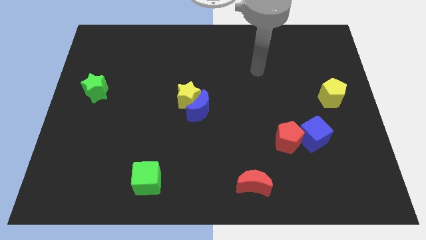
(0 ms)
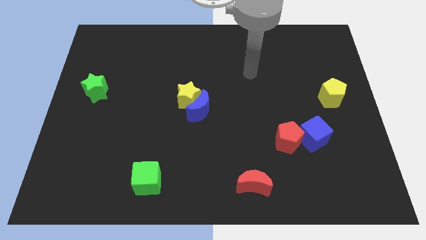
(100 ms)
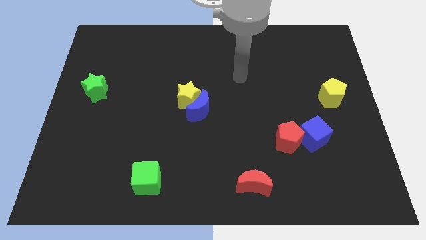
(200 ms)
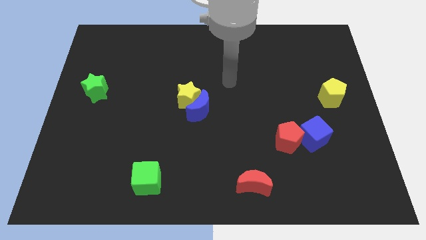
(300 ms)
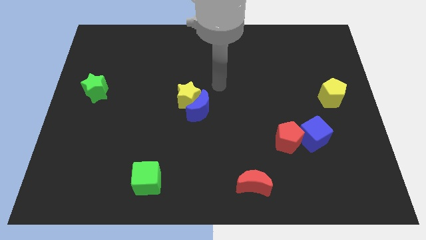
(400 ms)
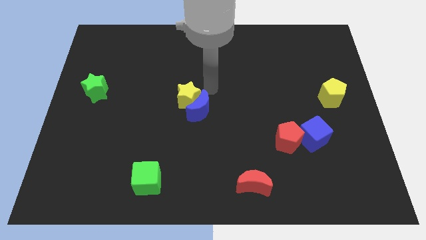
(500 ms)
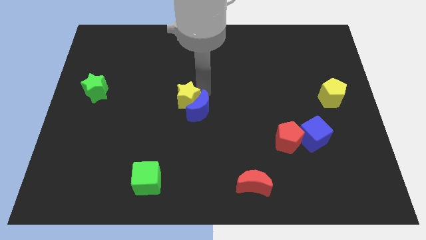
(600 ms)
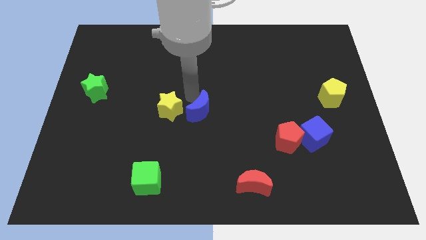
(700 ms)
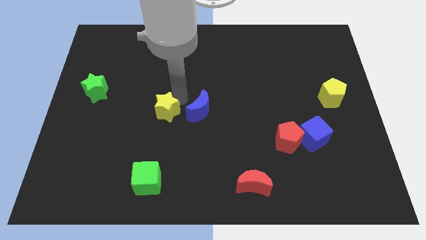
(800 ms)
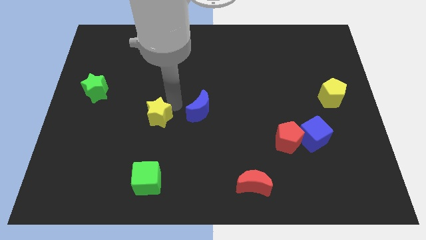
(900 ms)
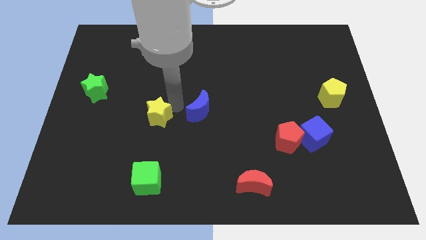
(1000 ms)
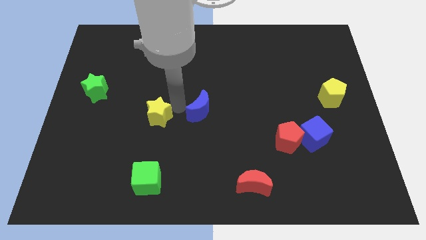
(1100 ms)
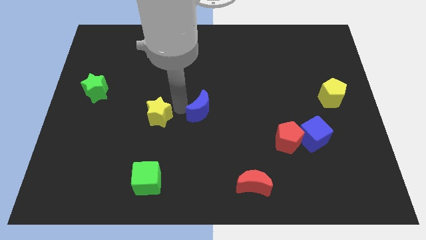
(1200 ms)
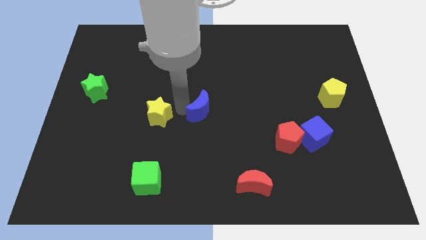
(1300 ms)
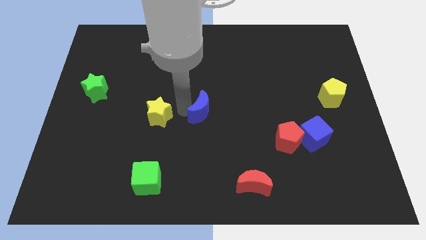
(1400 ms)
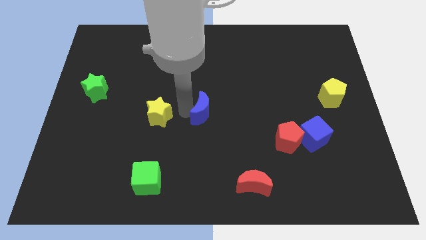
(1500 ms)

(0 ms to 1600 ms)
move the blue moon away from the yellow star

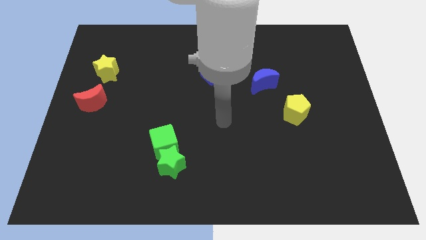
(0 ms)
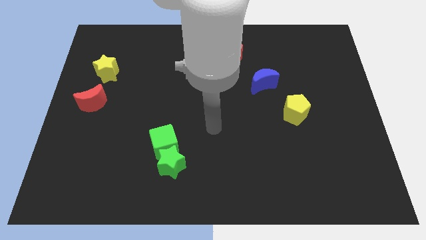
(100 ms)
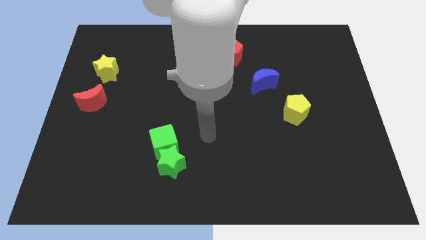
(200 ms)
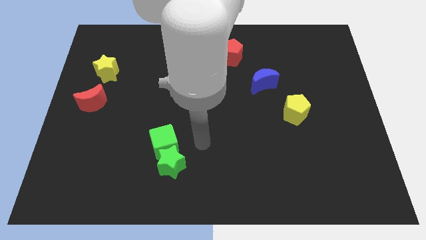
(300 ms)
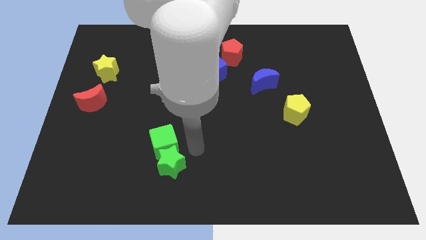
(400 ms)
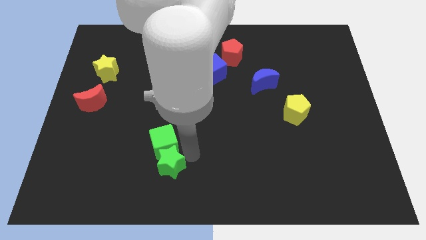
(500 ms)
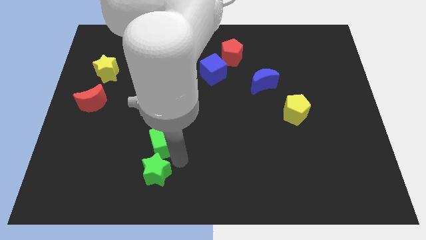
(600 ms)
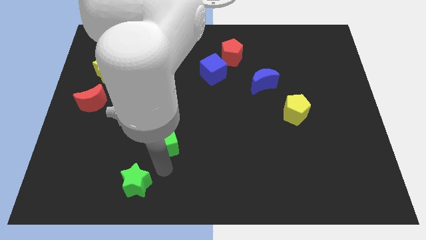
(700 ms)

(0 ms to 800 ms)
pull the green cube apart from the green star

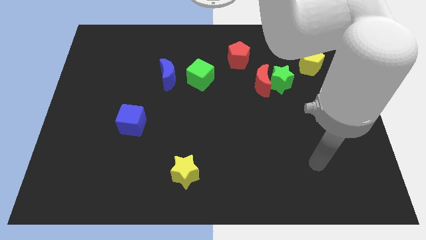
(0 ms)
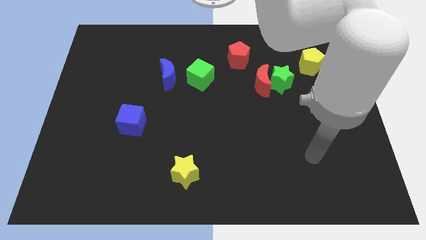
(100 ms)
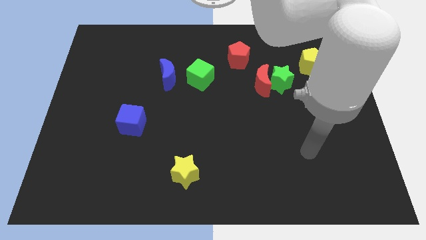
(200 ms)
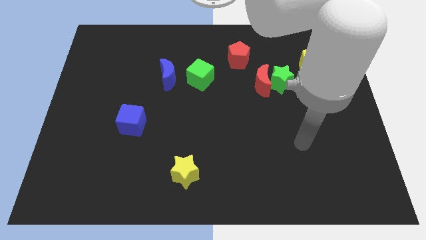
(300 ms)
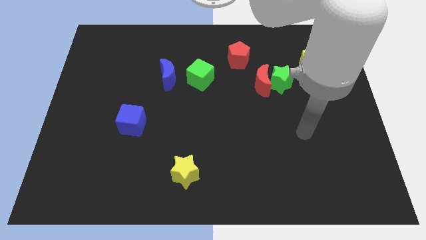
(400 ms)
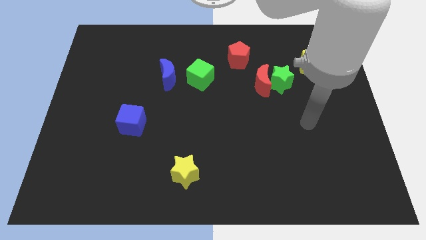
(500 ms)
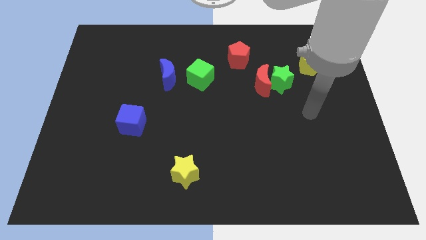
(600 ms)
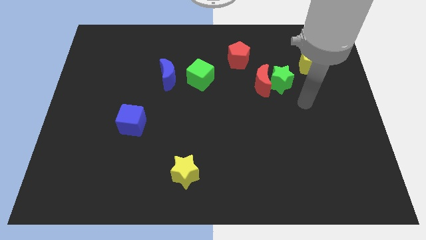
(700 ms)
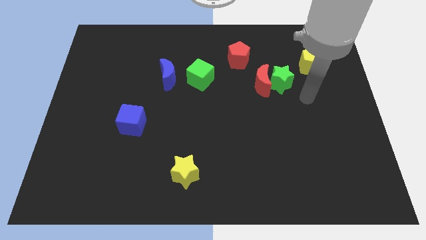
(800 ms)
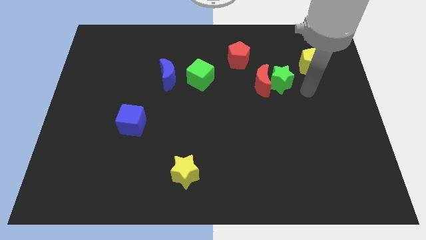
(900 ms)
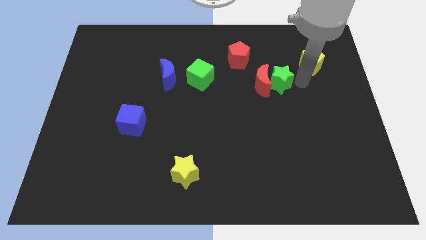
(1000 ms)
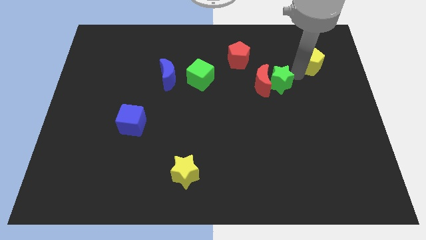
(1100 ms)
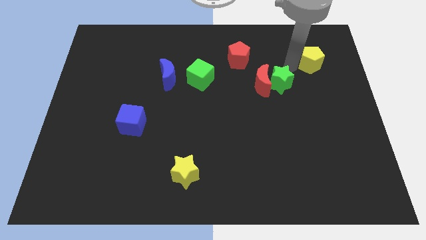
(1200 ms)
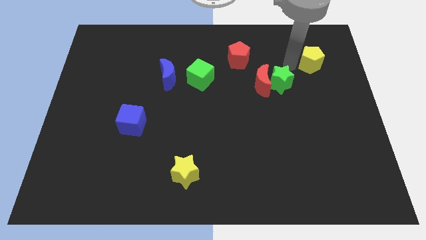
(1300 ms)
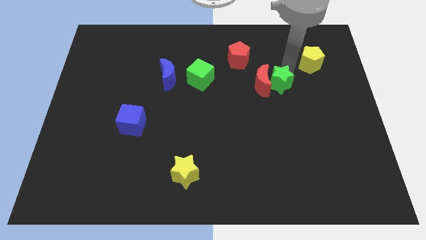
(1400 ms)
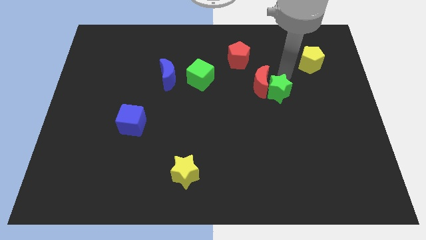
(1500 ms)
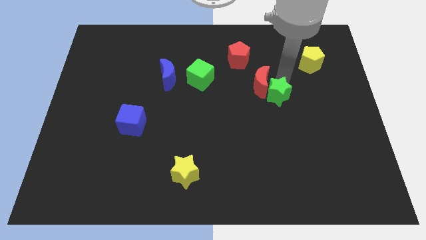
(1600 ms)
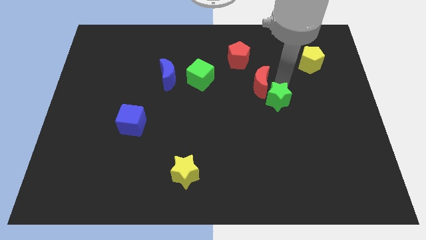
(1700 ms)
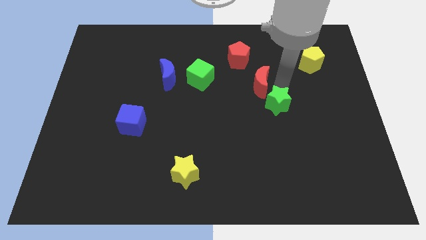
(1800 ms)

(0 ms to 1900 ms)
move the green star away from the red moon and yellow pentagon

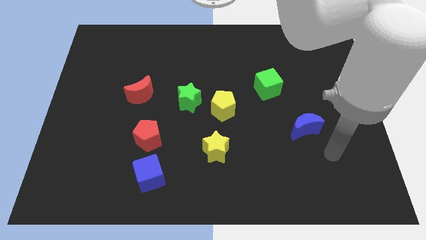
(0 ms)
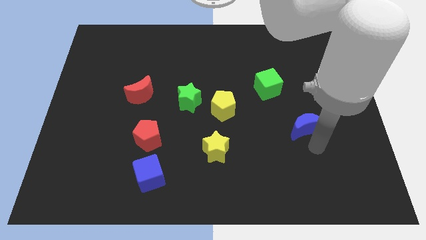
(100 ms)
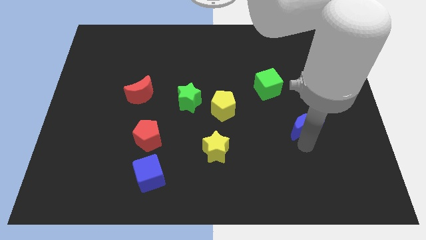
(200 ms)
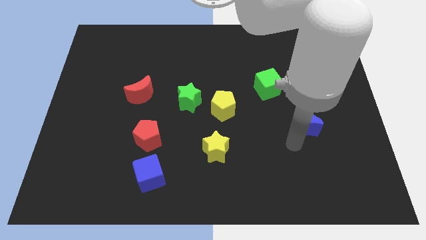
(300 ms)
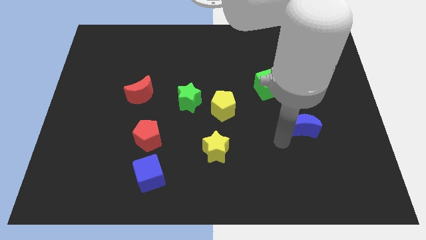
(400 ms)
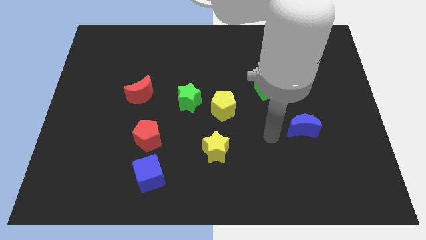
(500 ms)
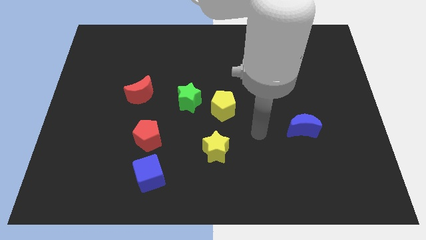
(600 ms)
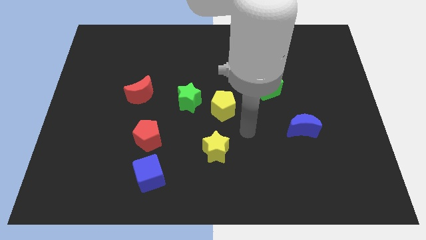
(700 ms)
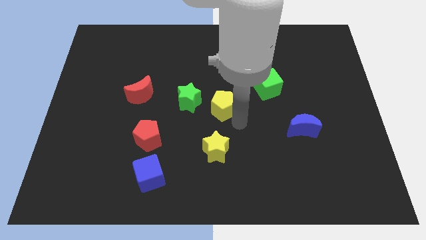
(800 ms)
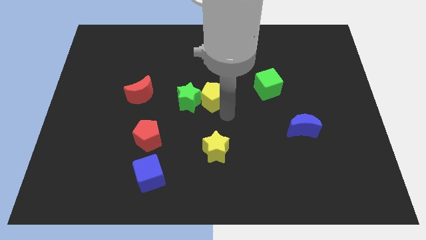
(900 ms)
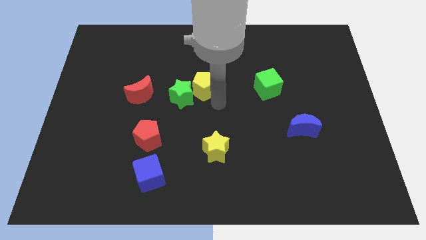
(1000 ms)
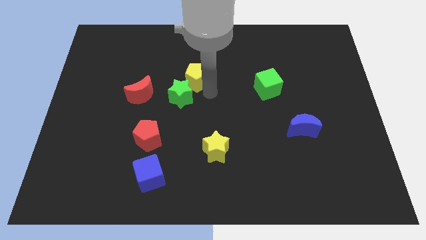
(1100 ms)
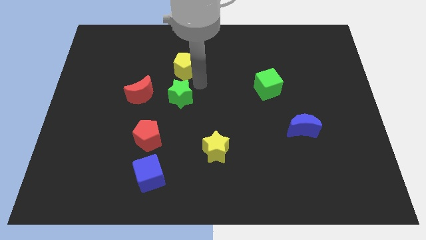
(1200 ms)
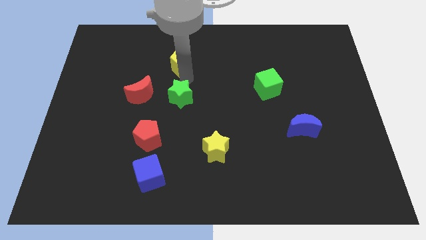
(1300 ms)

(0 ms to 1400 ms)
pull the green star apart from the yellow pentagon

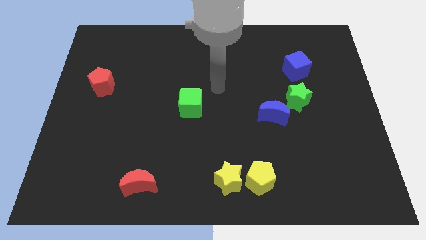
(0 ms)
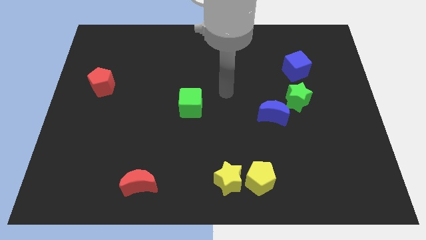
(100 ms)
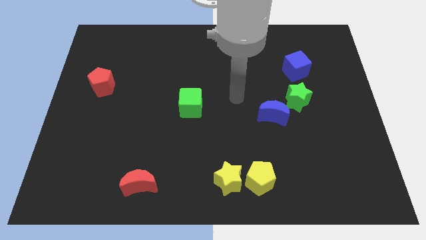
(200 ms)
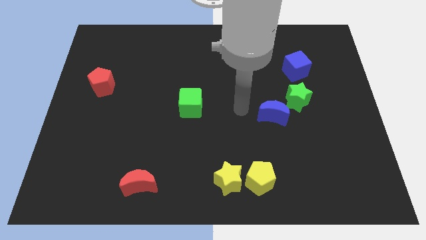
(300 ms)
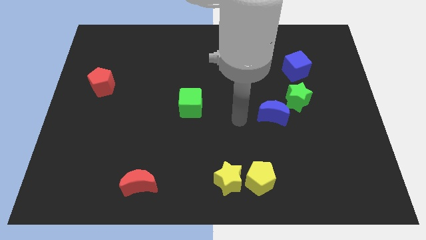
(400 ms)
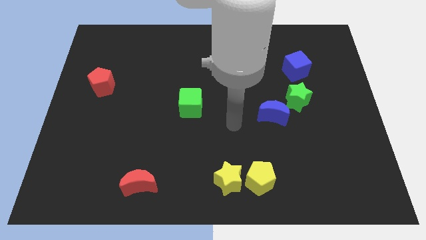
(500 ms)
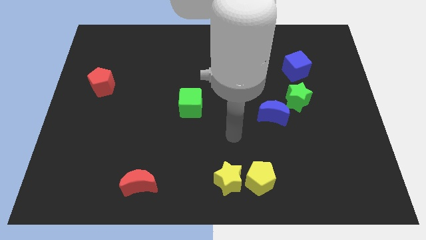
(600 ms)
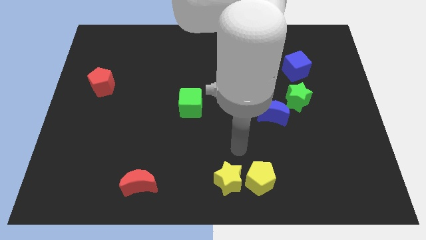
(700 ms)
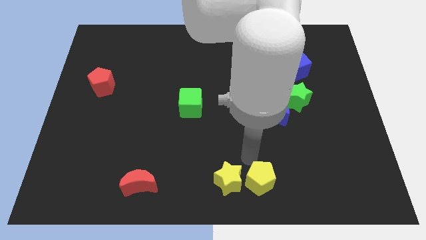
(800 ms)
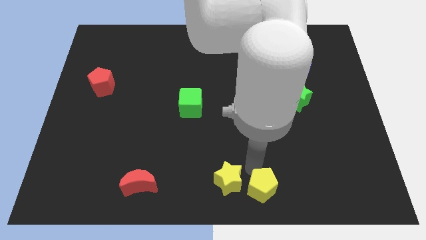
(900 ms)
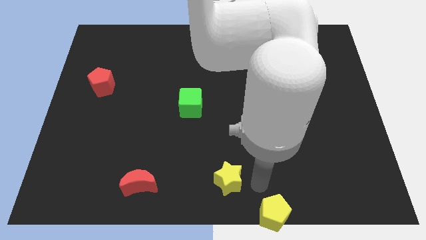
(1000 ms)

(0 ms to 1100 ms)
separate the yellow star from the yellow pentagon

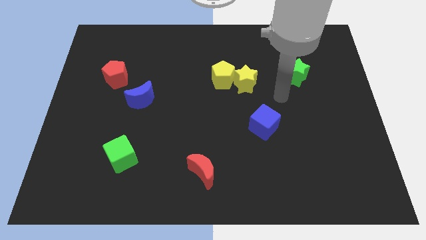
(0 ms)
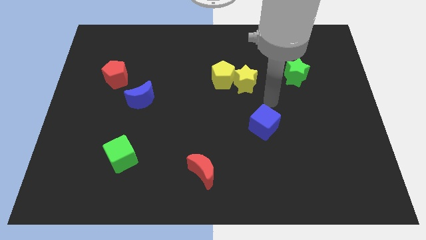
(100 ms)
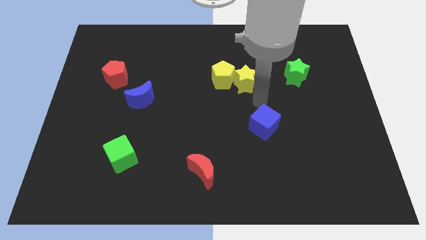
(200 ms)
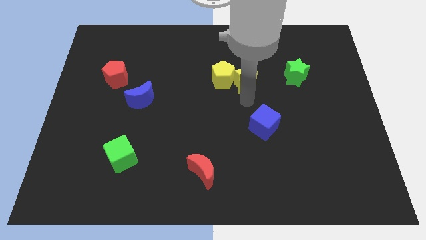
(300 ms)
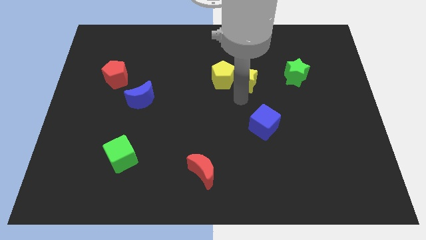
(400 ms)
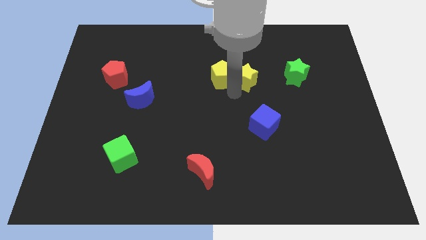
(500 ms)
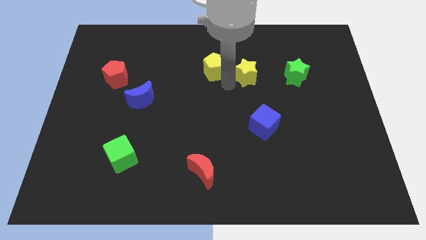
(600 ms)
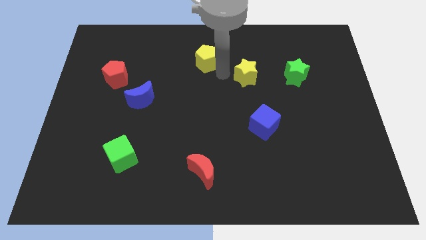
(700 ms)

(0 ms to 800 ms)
move the yellow star away from the yellow pentagon

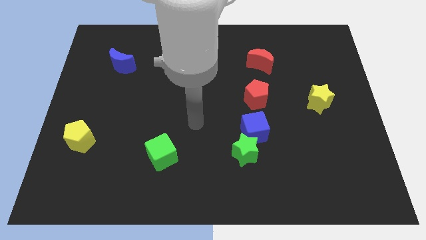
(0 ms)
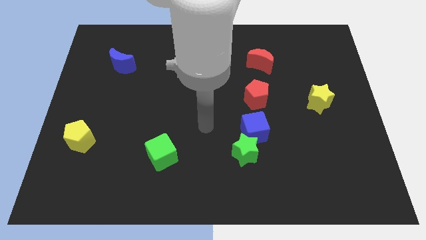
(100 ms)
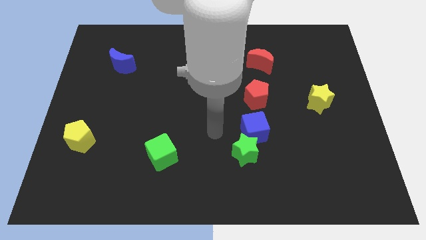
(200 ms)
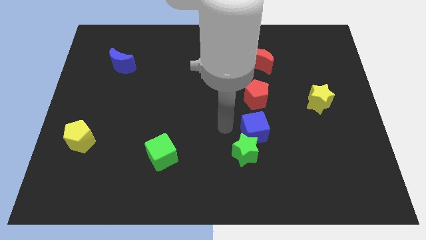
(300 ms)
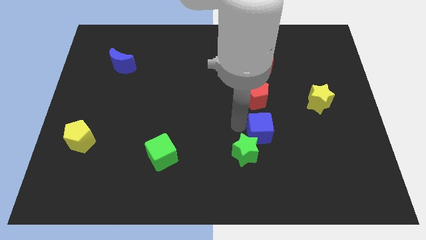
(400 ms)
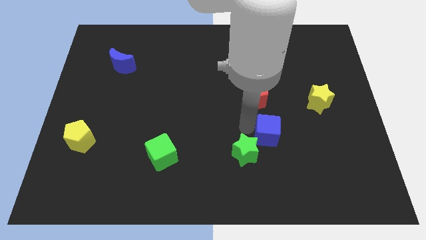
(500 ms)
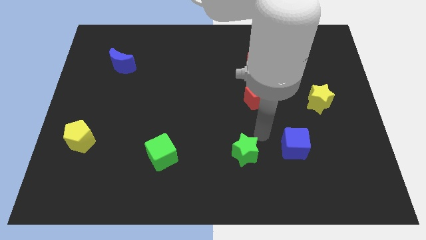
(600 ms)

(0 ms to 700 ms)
pull the green star apart from the blue cube

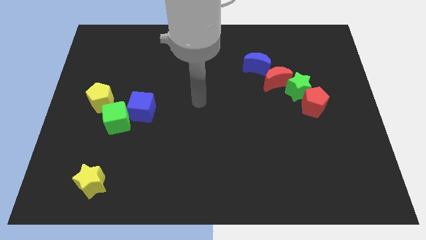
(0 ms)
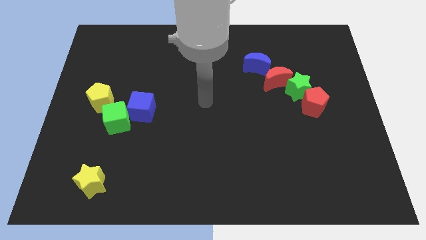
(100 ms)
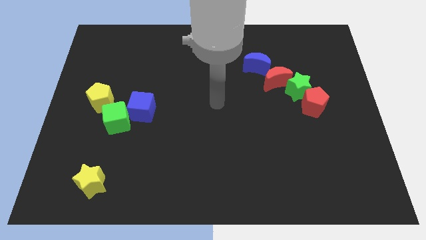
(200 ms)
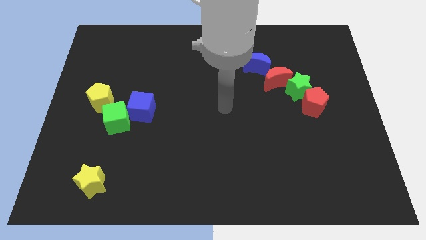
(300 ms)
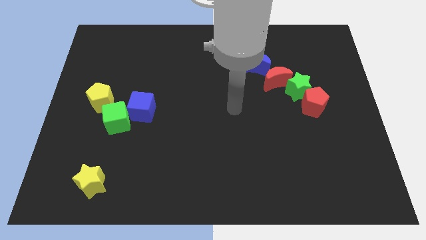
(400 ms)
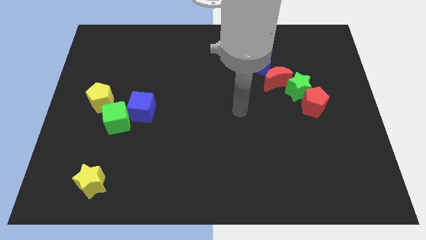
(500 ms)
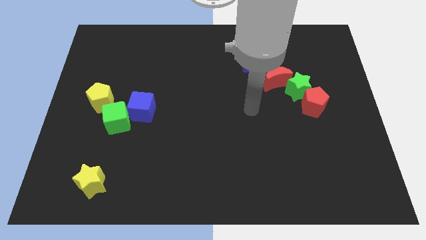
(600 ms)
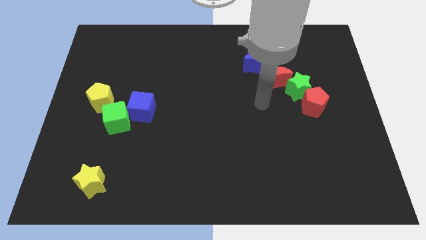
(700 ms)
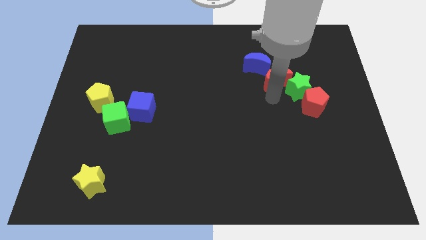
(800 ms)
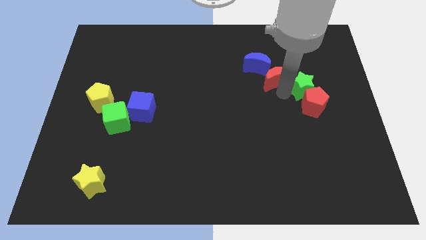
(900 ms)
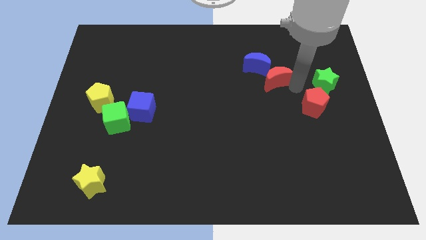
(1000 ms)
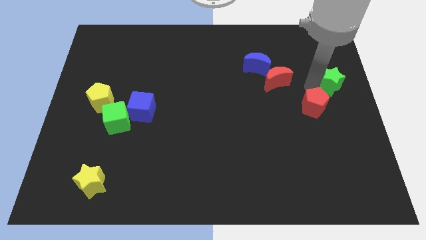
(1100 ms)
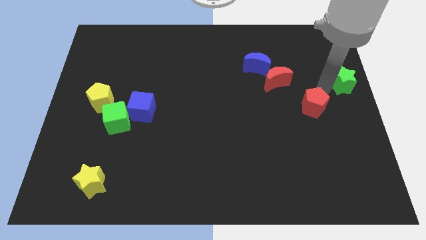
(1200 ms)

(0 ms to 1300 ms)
separate the red pentagon from the green star
